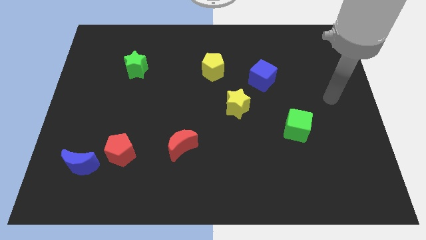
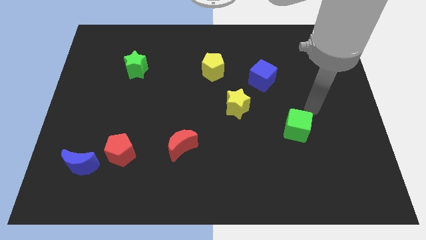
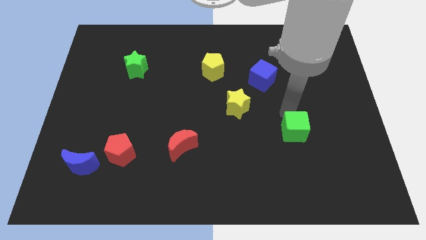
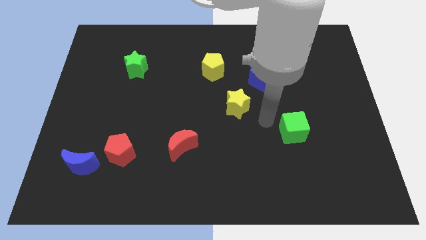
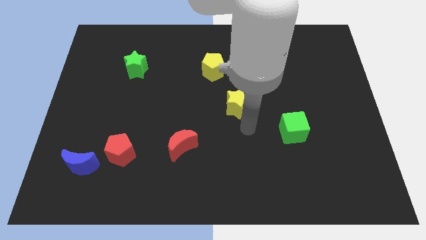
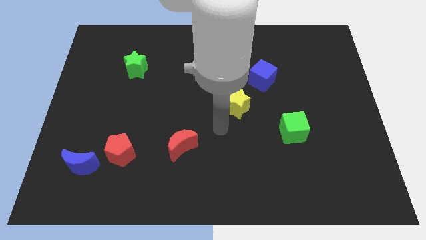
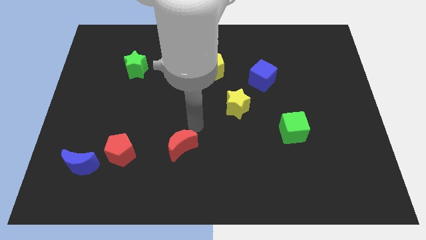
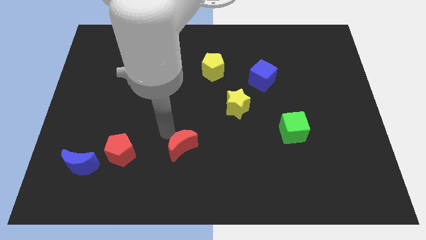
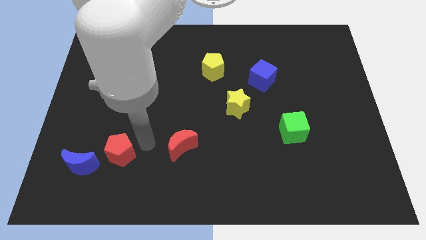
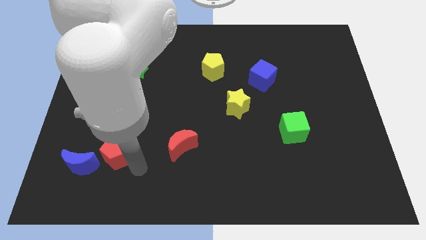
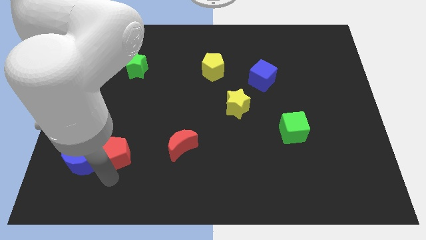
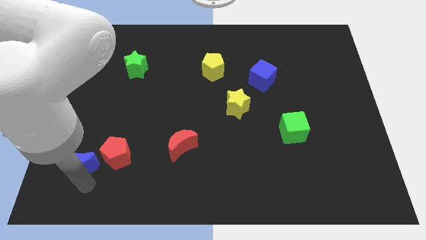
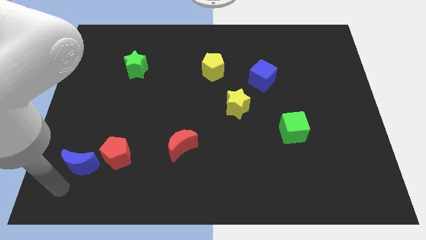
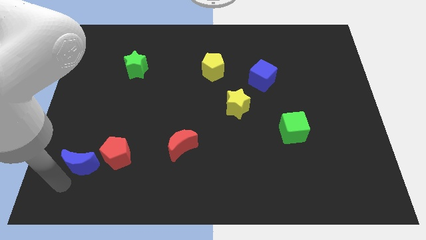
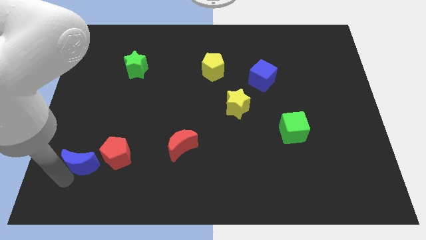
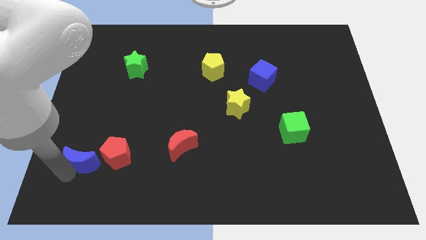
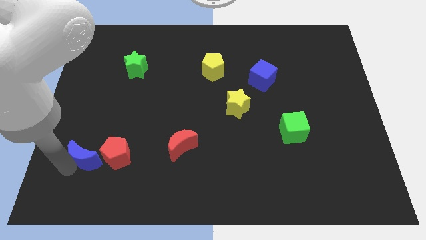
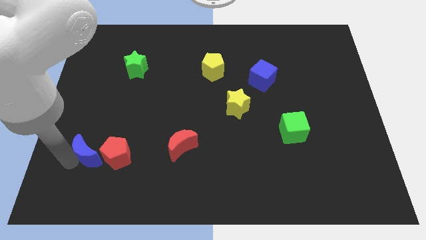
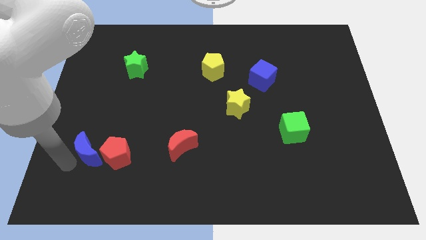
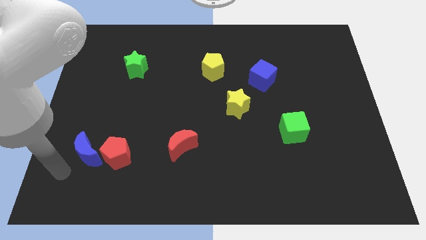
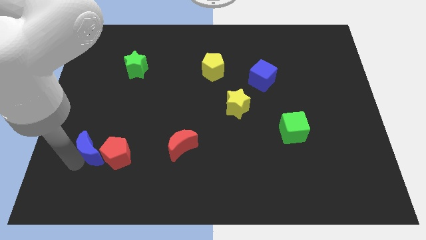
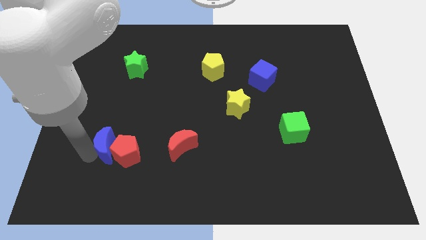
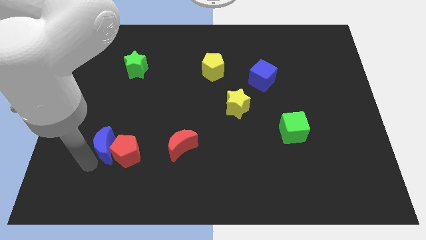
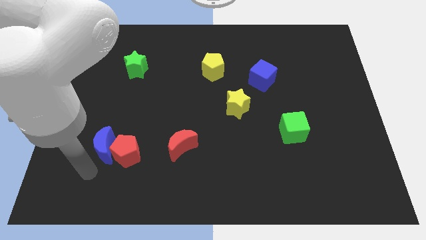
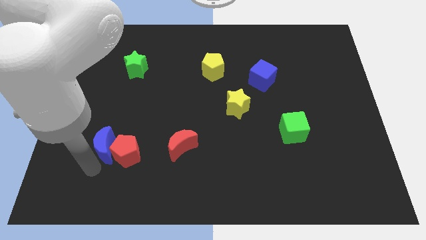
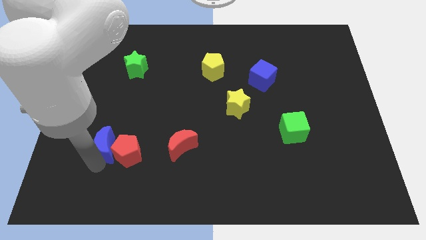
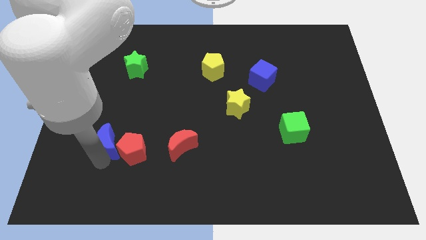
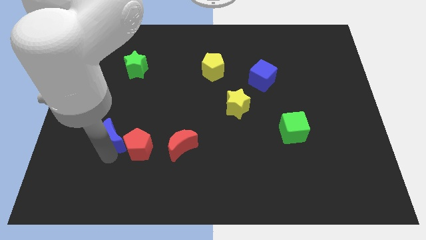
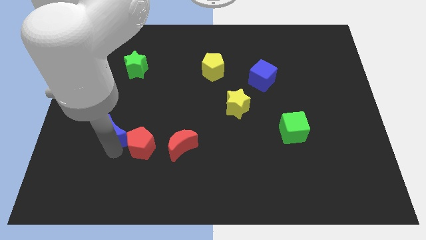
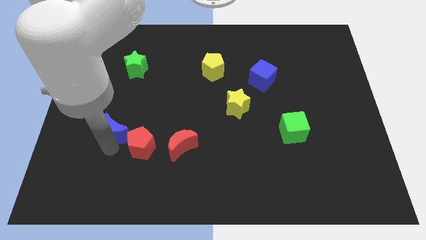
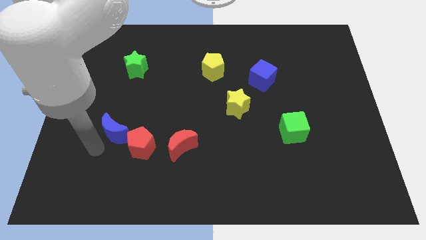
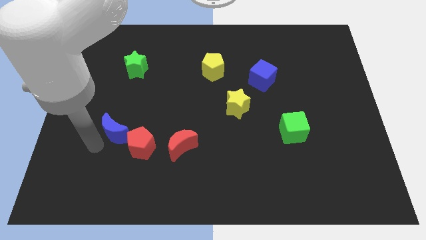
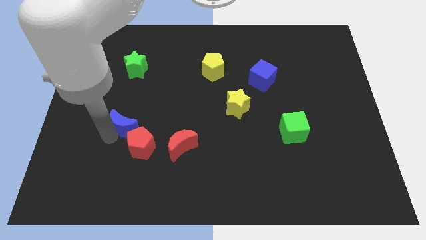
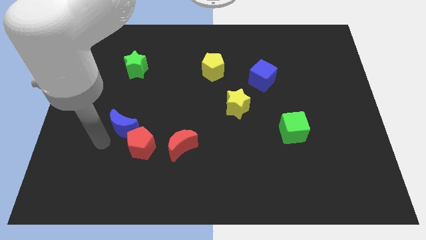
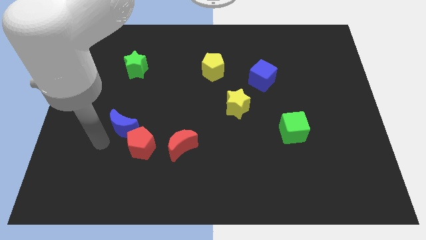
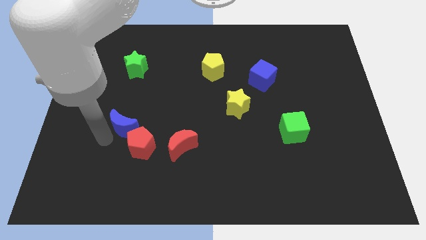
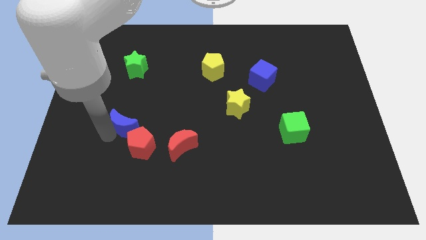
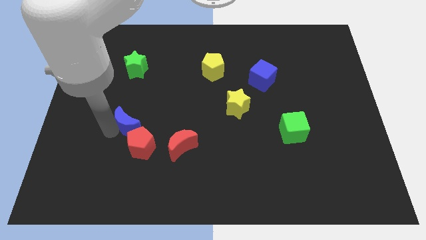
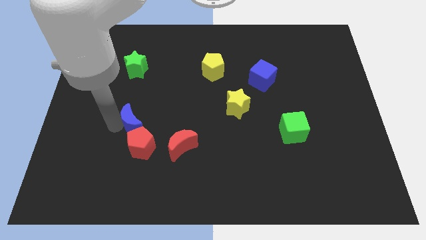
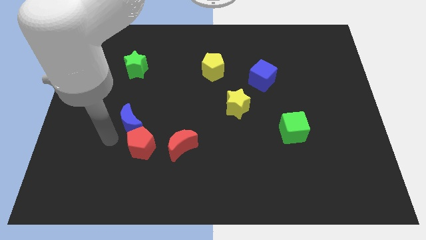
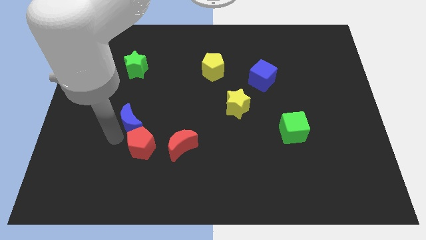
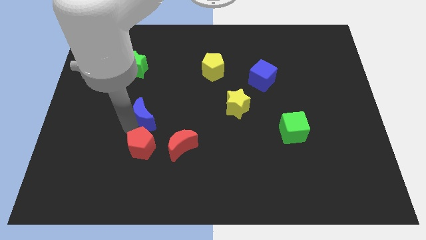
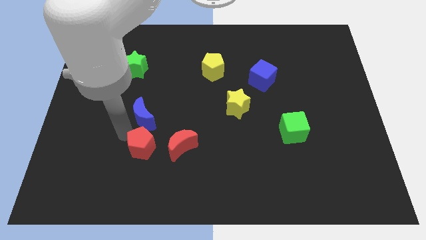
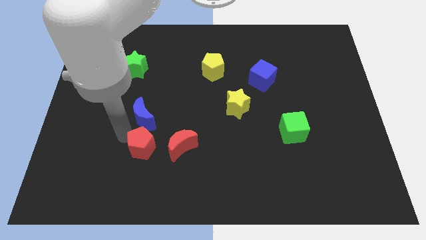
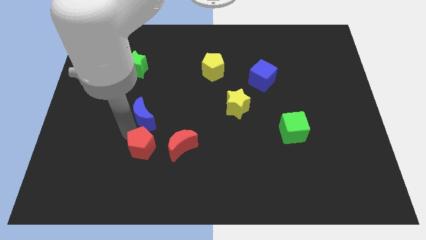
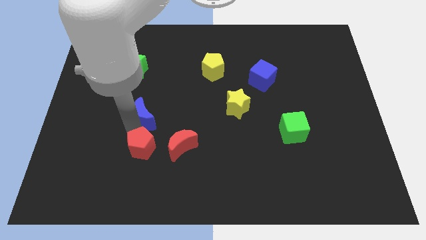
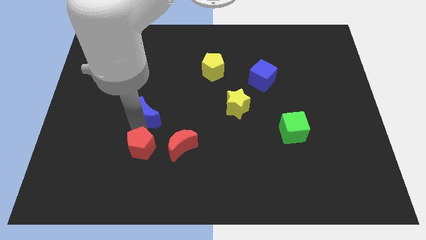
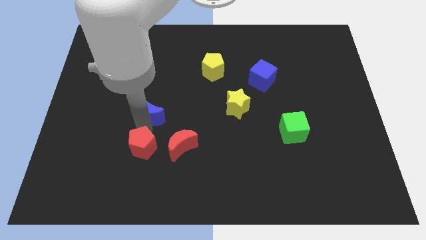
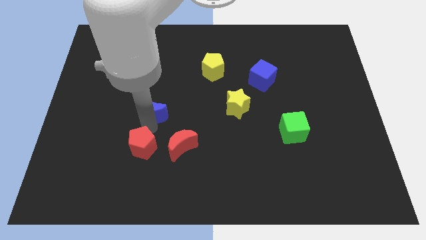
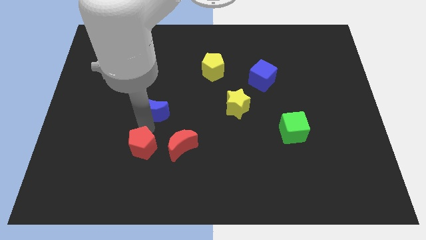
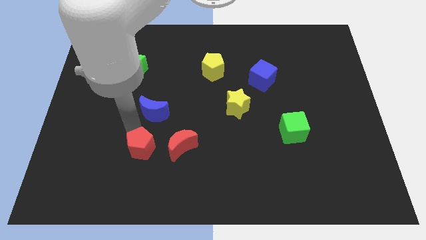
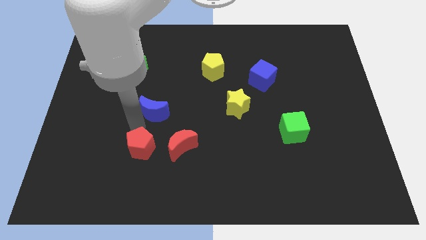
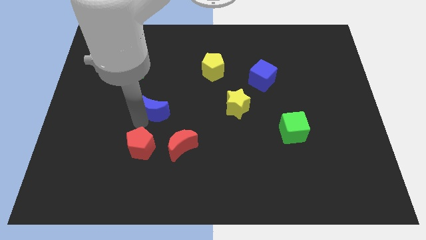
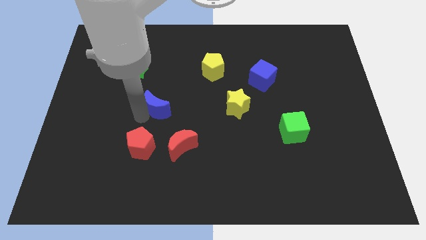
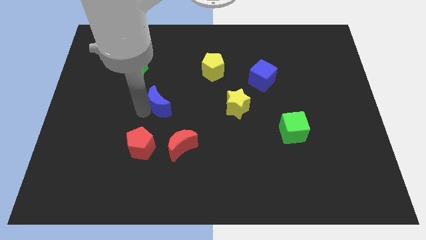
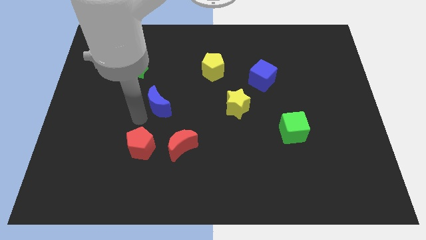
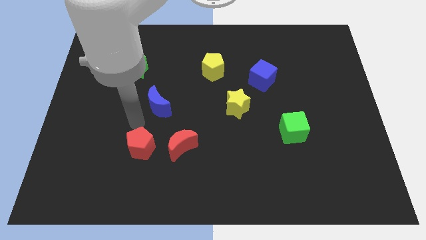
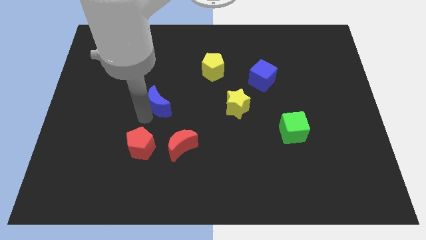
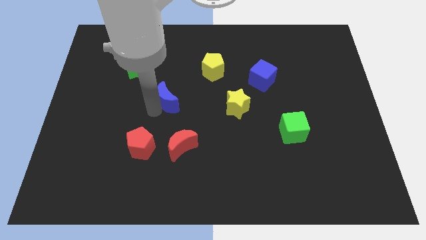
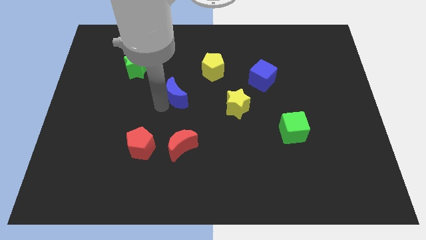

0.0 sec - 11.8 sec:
push the blue moon to the bottom left side of the yellow pentagon
